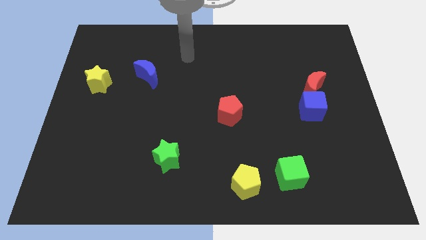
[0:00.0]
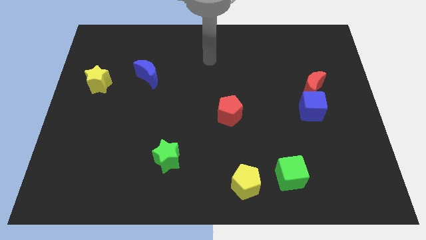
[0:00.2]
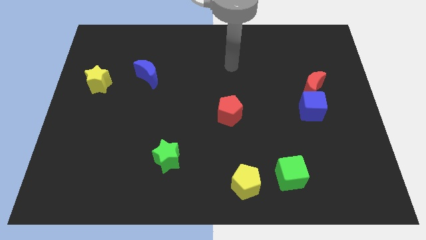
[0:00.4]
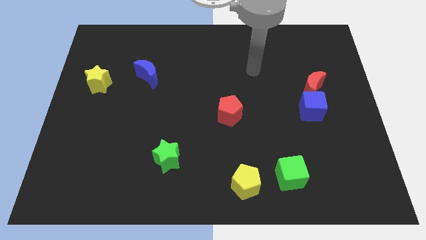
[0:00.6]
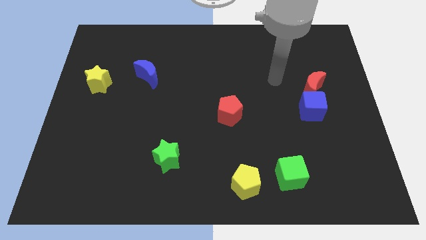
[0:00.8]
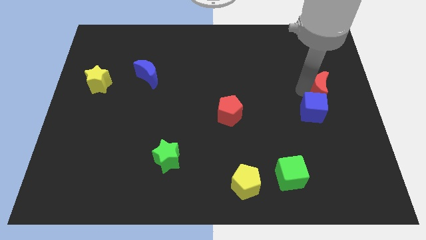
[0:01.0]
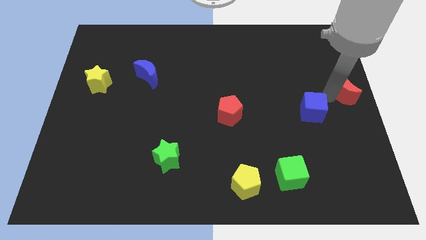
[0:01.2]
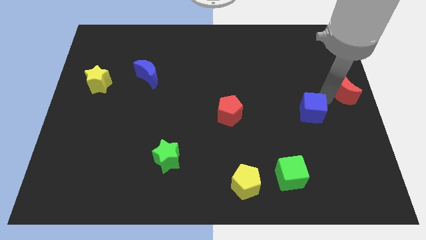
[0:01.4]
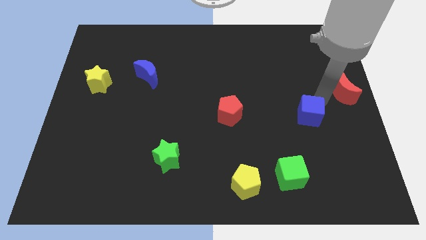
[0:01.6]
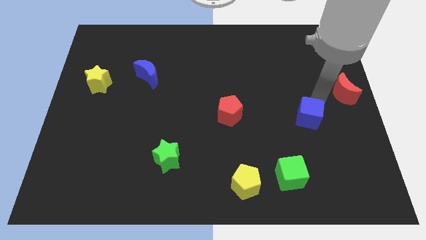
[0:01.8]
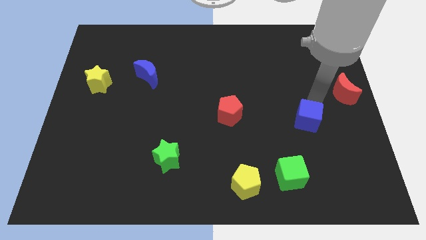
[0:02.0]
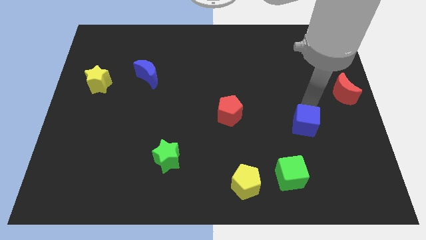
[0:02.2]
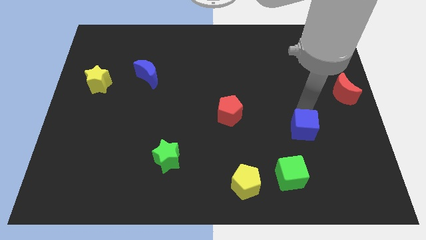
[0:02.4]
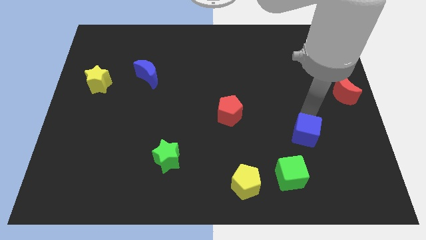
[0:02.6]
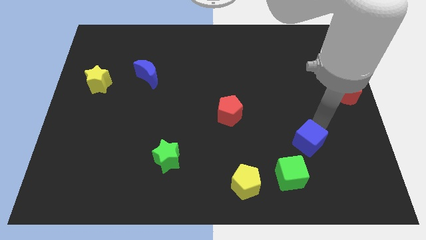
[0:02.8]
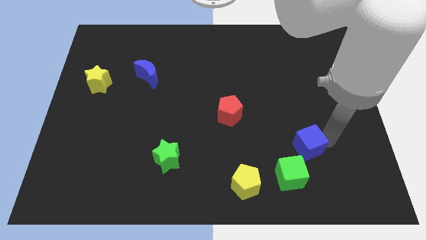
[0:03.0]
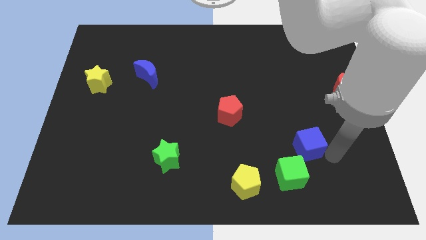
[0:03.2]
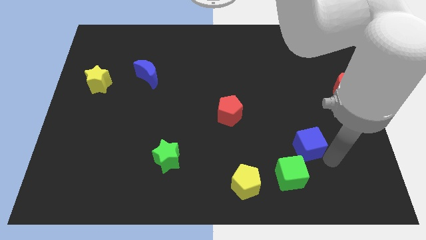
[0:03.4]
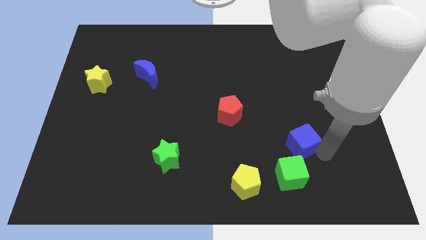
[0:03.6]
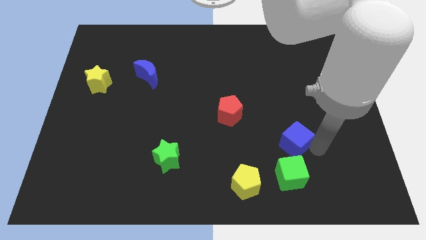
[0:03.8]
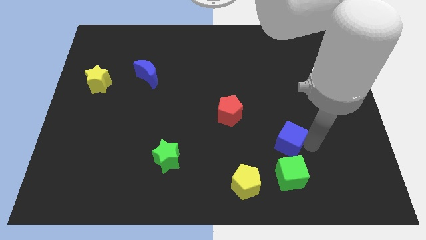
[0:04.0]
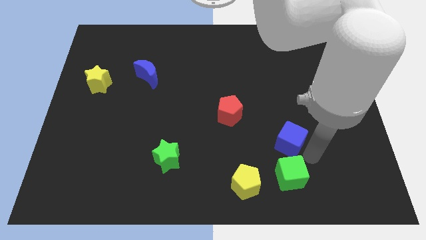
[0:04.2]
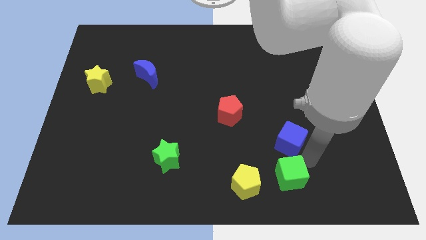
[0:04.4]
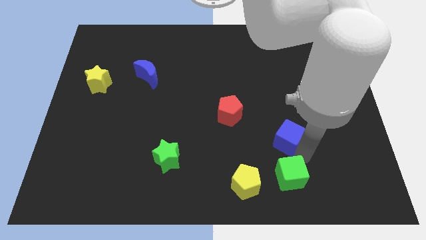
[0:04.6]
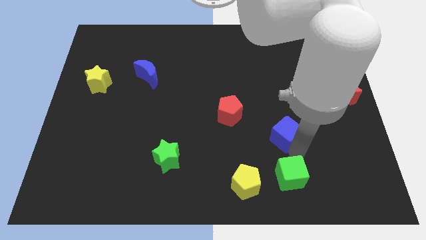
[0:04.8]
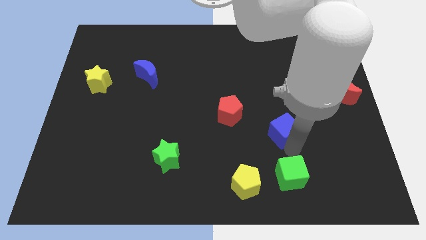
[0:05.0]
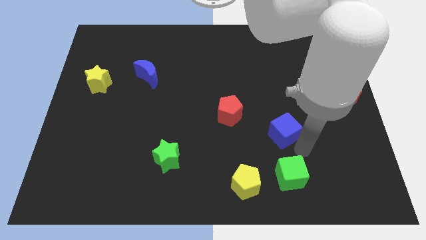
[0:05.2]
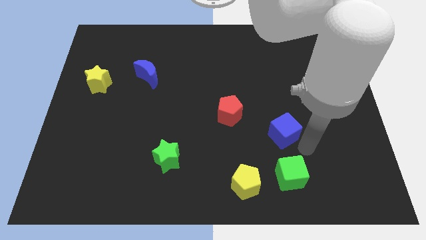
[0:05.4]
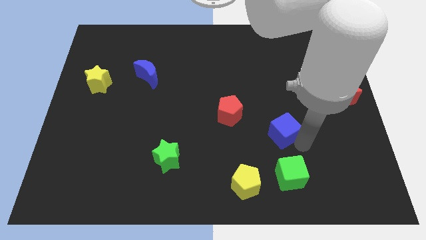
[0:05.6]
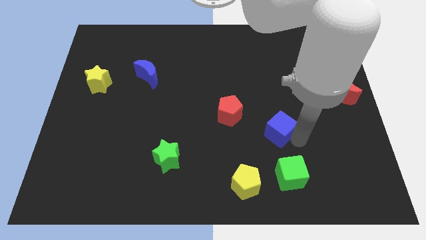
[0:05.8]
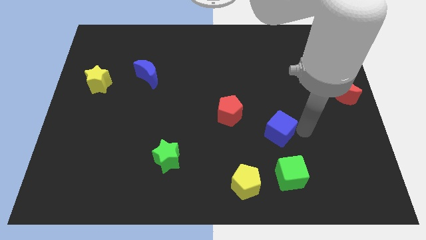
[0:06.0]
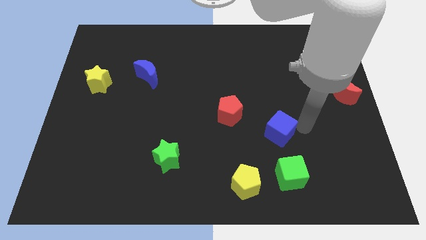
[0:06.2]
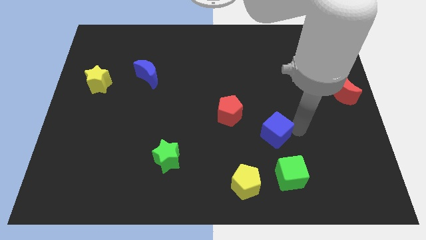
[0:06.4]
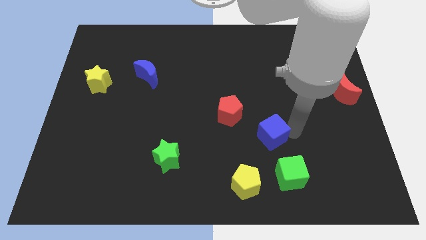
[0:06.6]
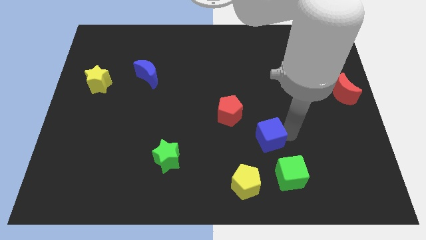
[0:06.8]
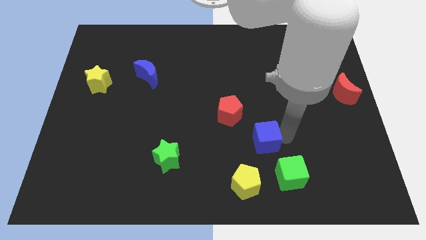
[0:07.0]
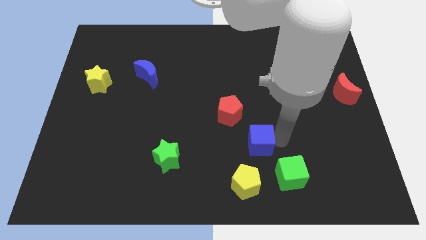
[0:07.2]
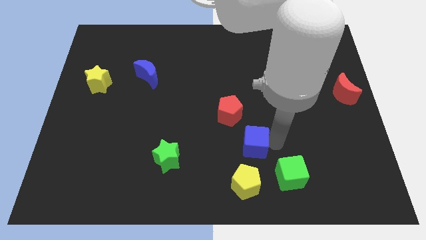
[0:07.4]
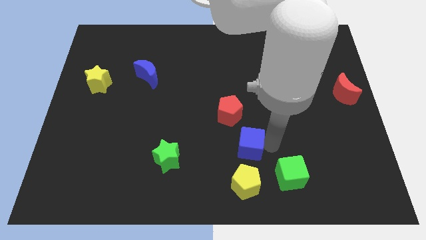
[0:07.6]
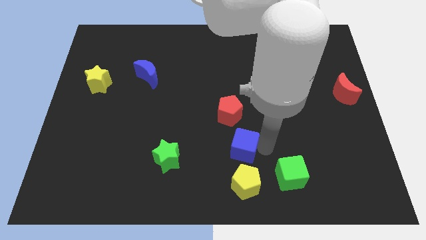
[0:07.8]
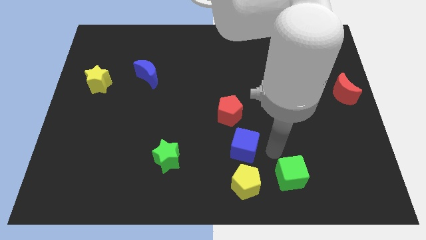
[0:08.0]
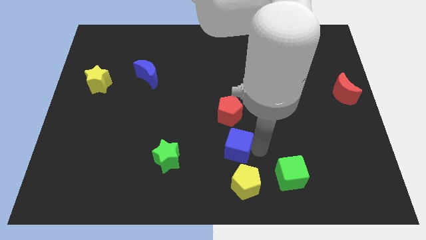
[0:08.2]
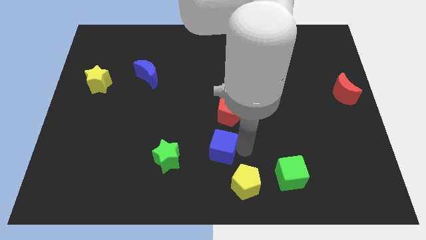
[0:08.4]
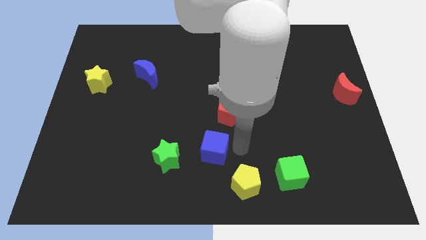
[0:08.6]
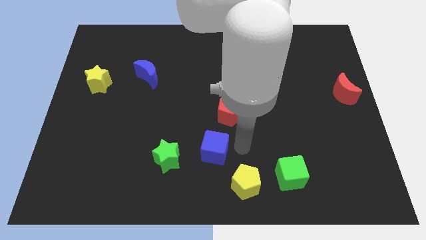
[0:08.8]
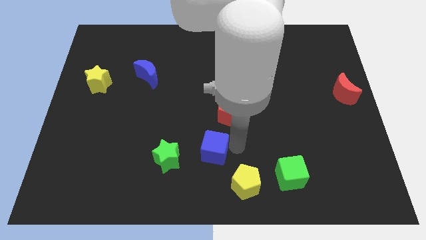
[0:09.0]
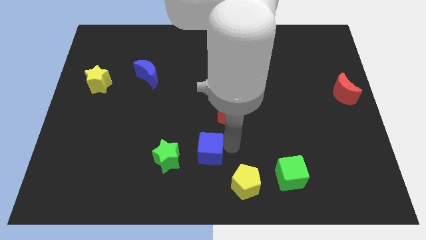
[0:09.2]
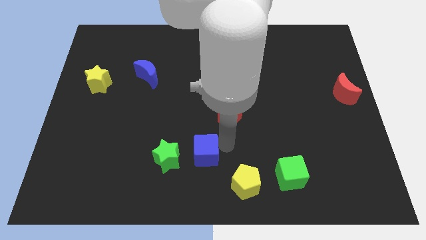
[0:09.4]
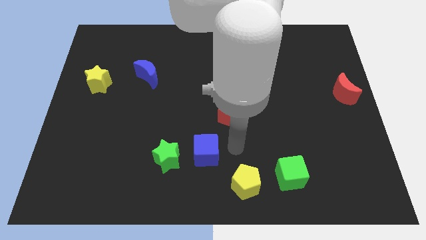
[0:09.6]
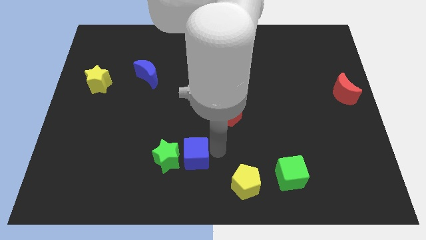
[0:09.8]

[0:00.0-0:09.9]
slide the blue cube next to the green star

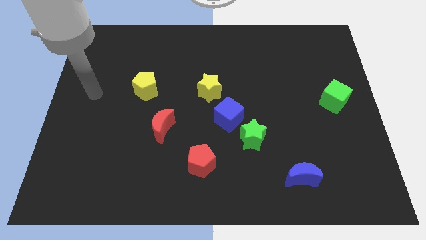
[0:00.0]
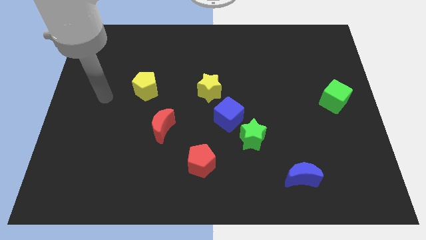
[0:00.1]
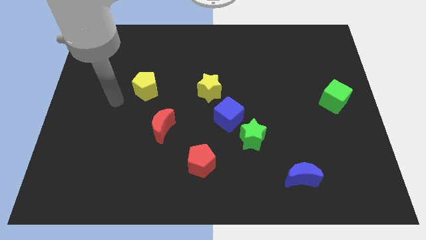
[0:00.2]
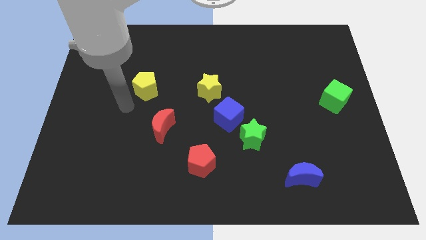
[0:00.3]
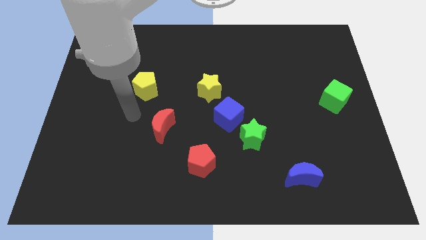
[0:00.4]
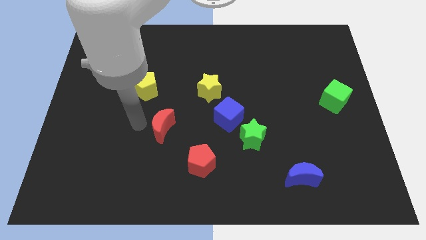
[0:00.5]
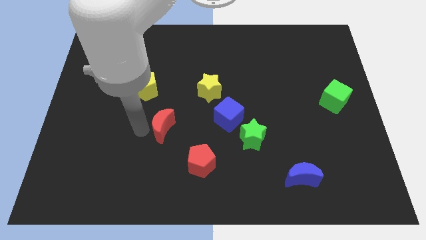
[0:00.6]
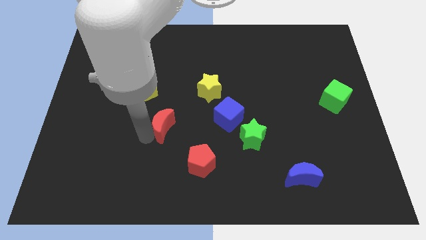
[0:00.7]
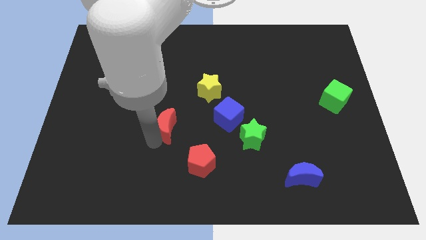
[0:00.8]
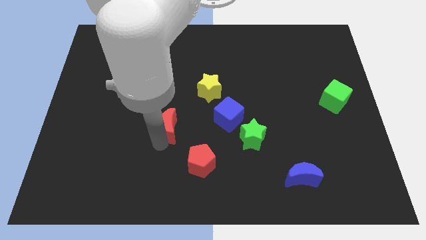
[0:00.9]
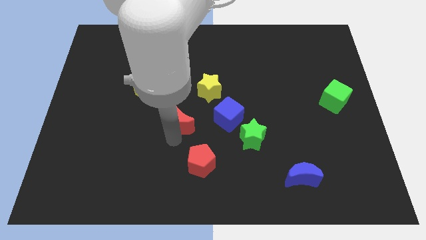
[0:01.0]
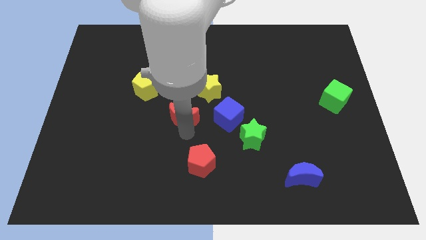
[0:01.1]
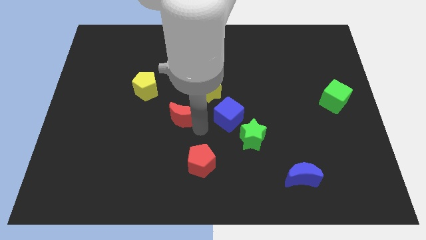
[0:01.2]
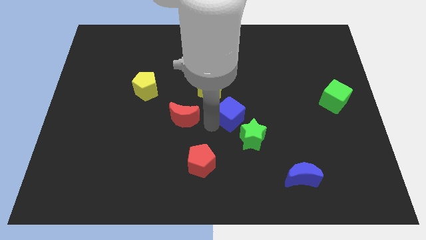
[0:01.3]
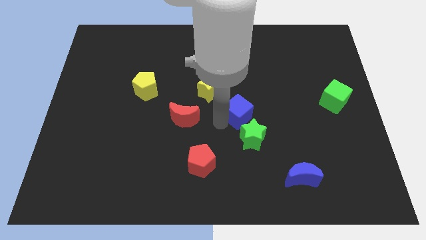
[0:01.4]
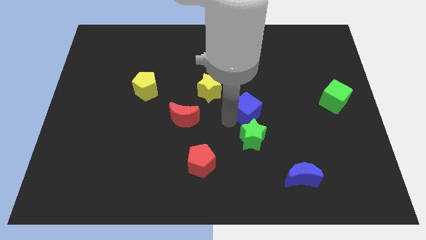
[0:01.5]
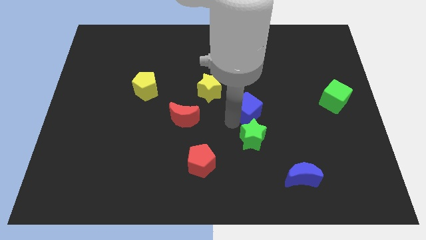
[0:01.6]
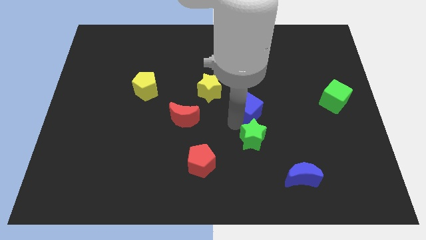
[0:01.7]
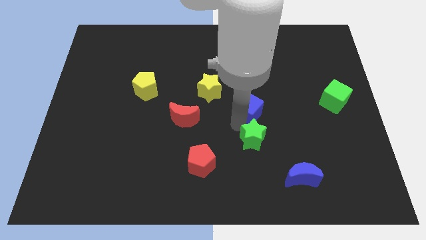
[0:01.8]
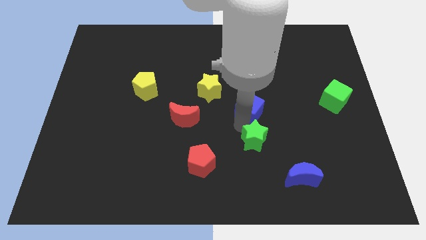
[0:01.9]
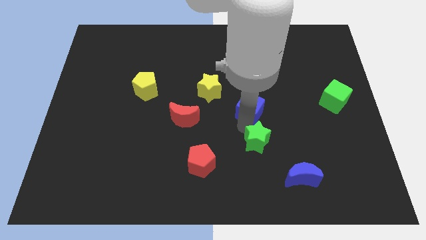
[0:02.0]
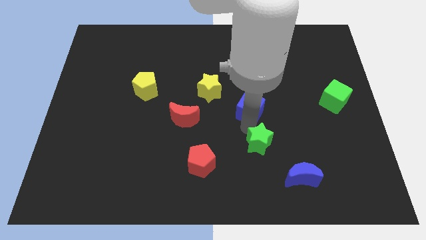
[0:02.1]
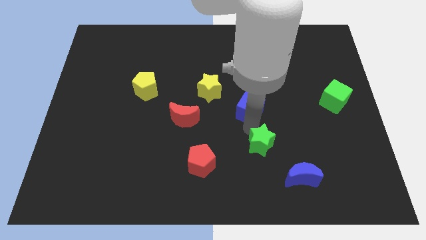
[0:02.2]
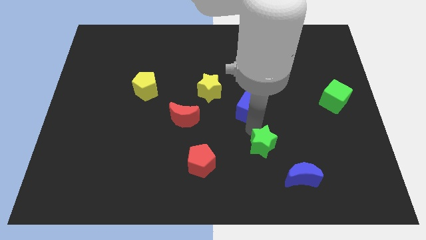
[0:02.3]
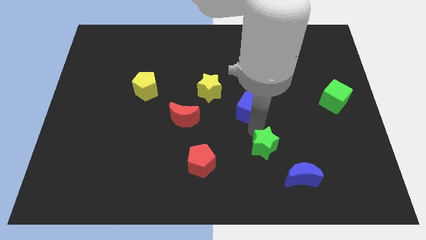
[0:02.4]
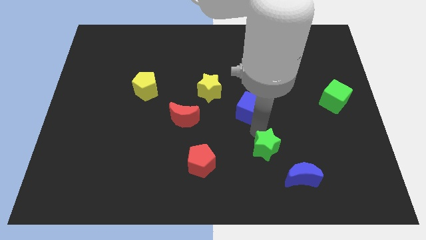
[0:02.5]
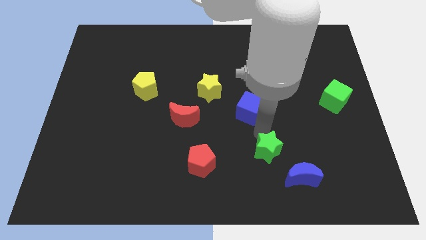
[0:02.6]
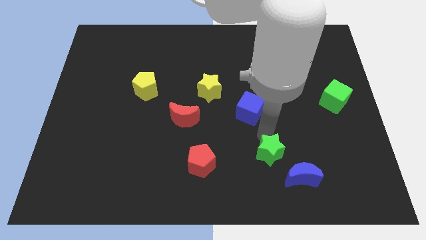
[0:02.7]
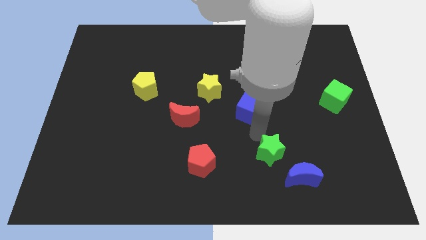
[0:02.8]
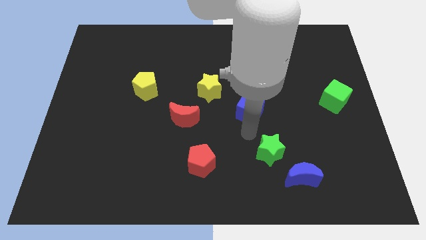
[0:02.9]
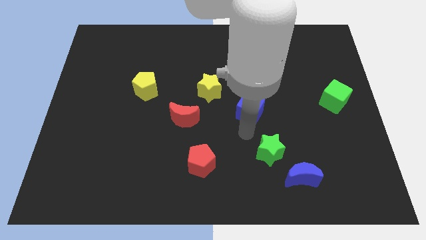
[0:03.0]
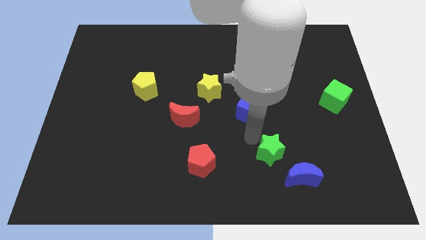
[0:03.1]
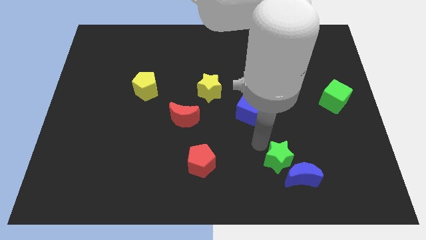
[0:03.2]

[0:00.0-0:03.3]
push the green star next to the blue moon
